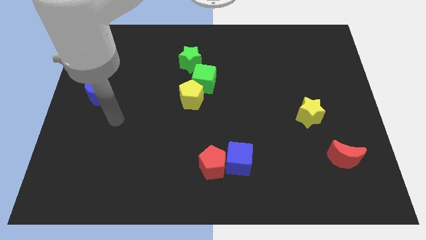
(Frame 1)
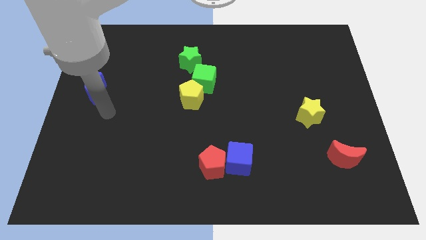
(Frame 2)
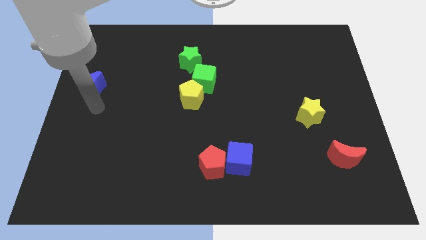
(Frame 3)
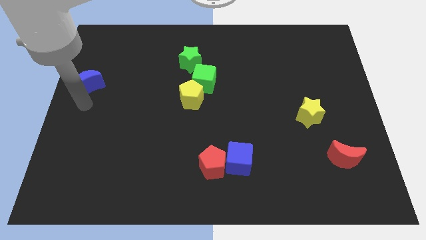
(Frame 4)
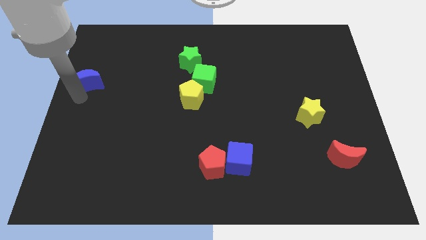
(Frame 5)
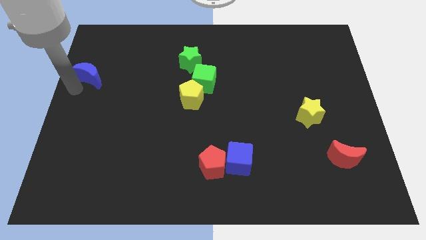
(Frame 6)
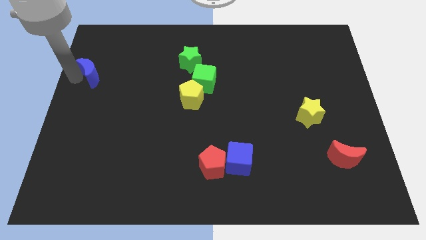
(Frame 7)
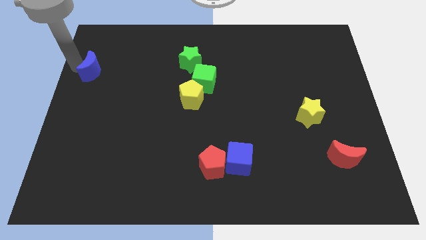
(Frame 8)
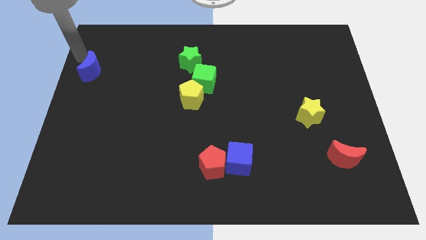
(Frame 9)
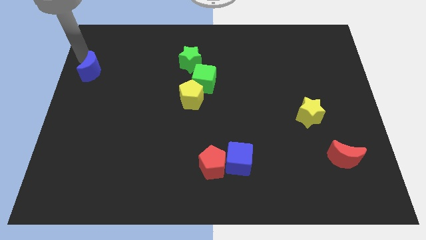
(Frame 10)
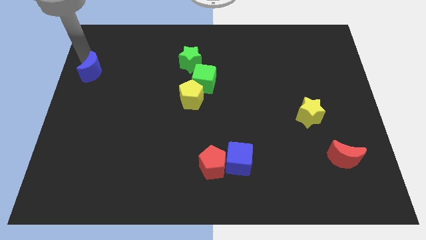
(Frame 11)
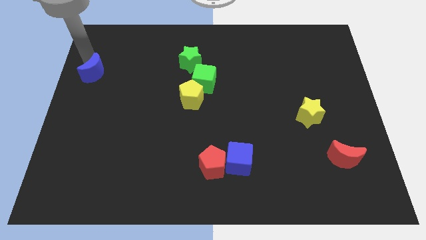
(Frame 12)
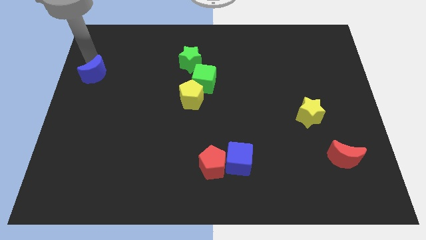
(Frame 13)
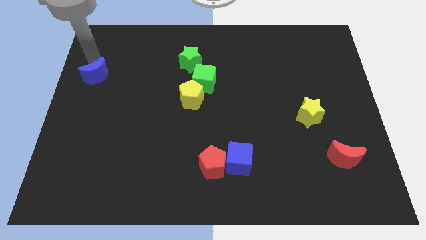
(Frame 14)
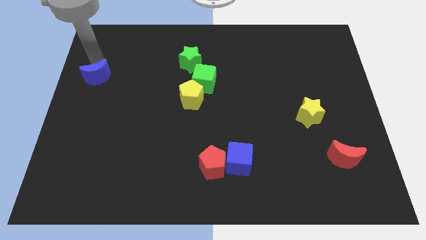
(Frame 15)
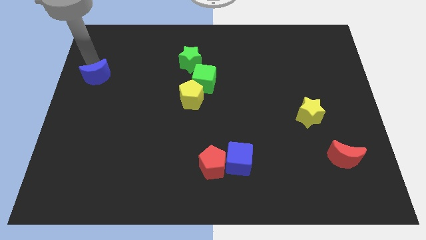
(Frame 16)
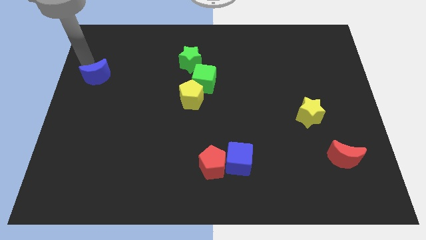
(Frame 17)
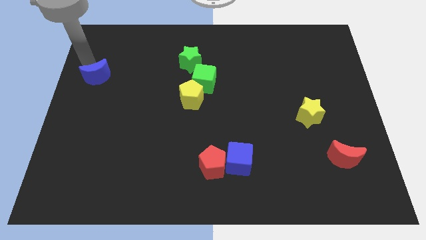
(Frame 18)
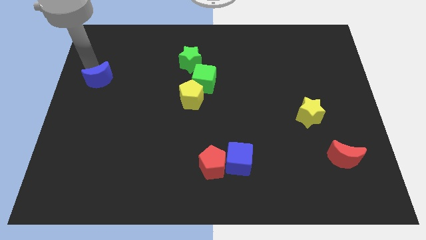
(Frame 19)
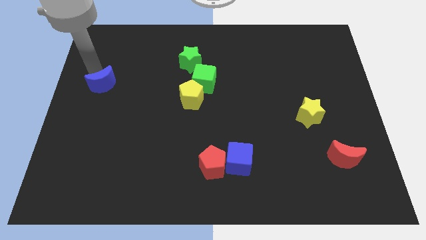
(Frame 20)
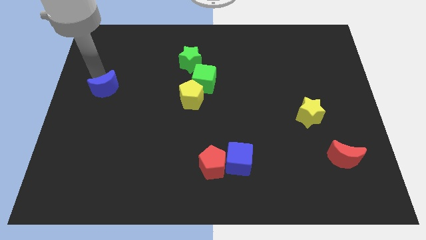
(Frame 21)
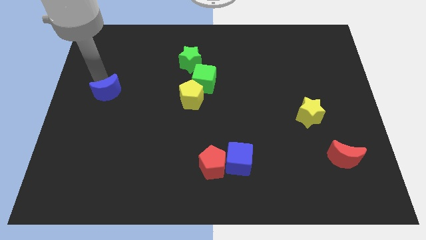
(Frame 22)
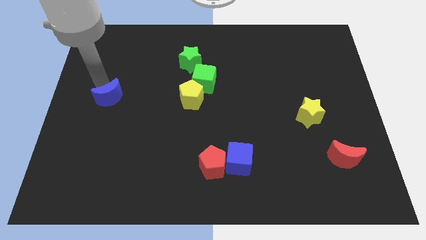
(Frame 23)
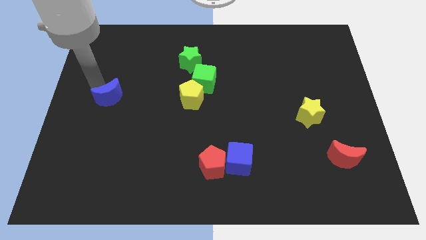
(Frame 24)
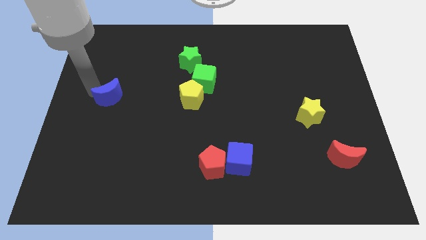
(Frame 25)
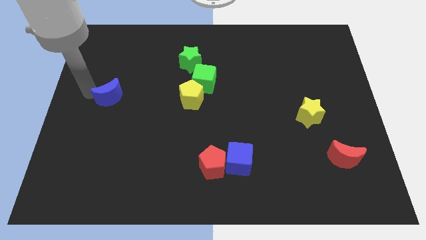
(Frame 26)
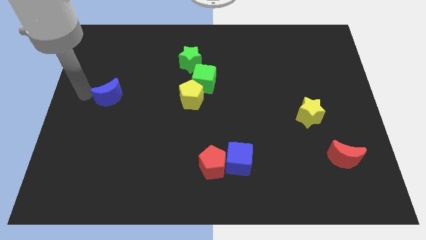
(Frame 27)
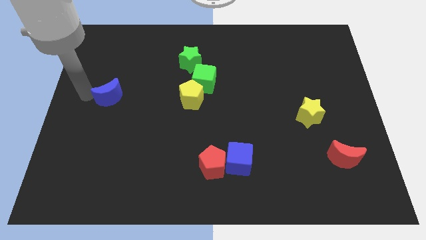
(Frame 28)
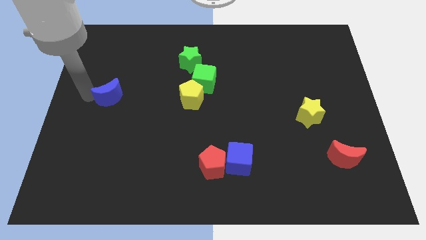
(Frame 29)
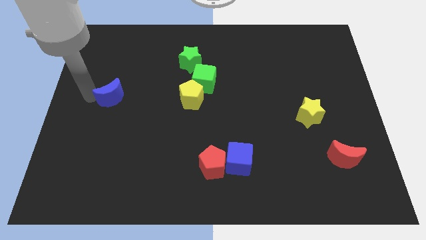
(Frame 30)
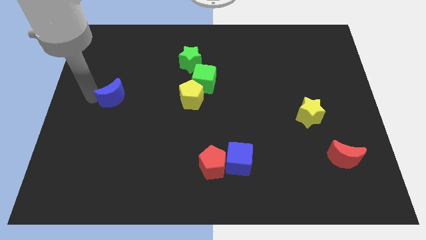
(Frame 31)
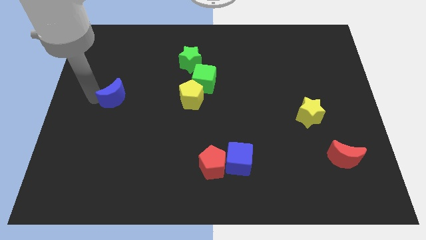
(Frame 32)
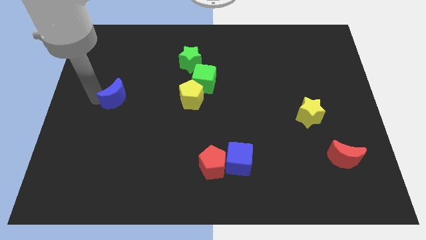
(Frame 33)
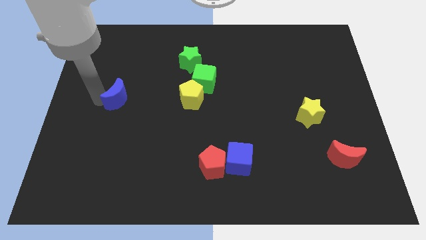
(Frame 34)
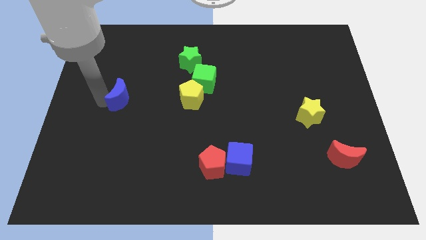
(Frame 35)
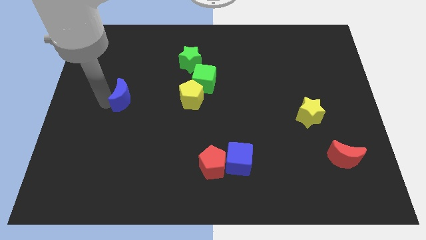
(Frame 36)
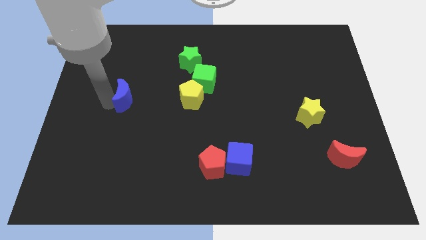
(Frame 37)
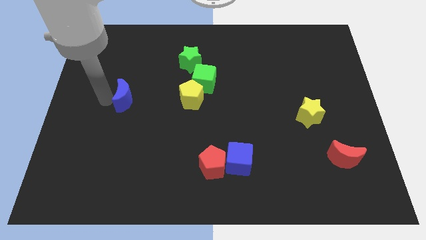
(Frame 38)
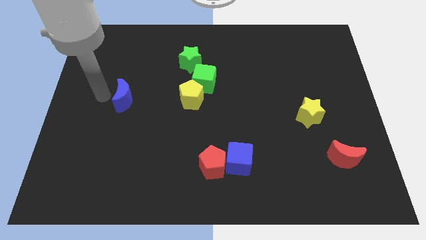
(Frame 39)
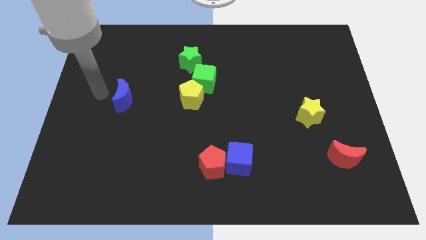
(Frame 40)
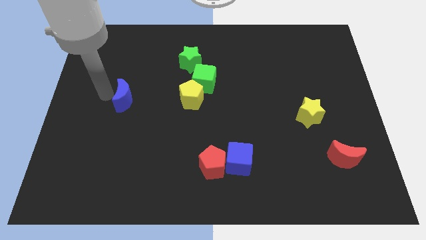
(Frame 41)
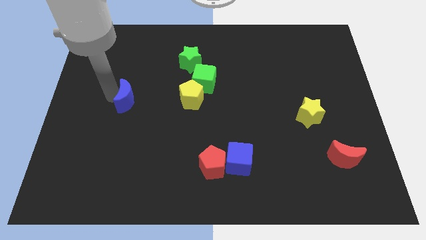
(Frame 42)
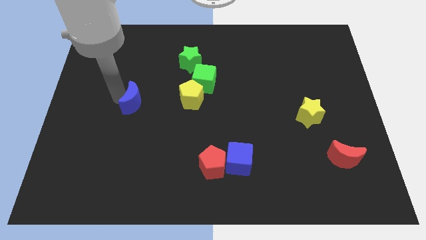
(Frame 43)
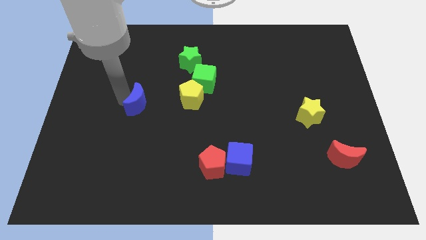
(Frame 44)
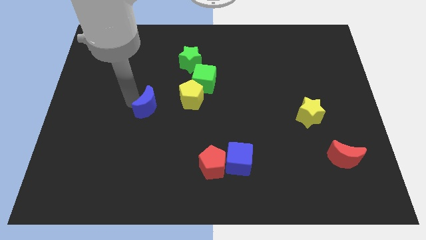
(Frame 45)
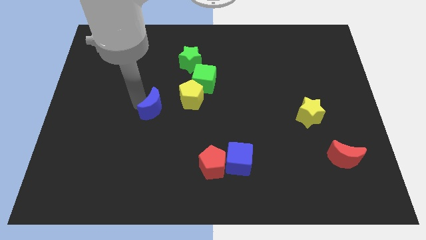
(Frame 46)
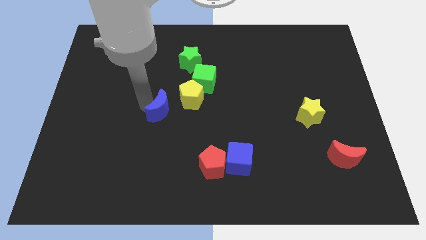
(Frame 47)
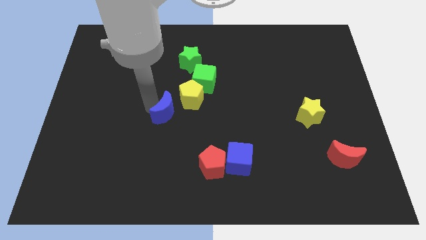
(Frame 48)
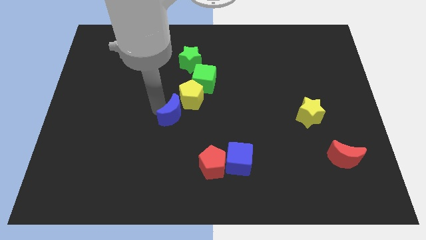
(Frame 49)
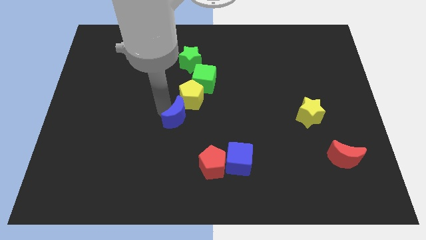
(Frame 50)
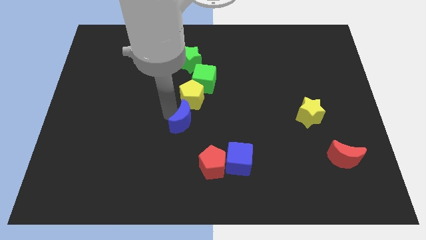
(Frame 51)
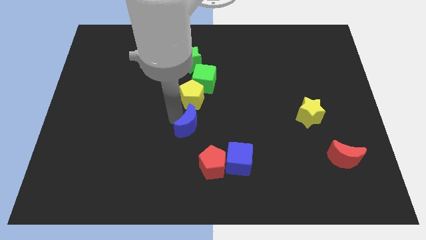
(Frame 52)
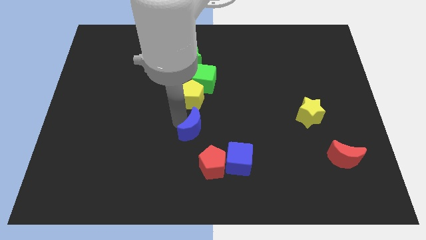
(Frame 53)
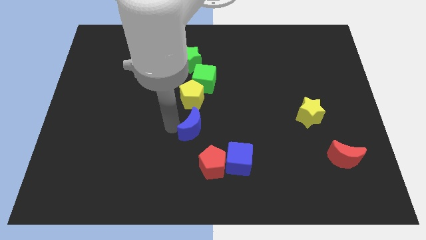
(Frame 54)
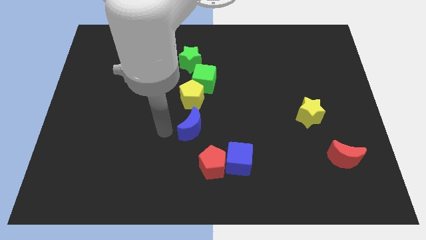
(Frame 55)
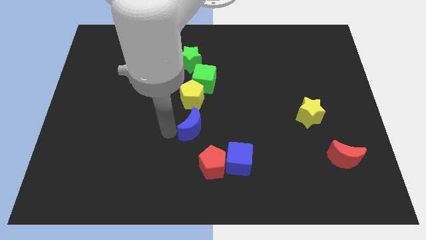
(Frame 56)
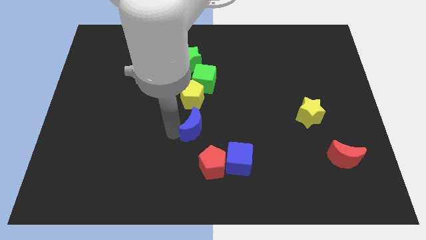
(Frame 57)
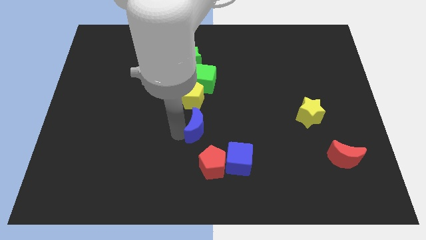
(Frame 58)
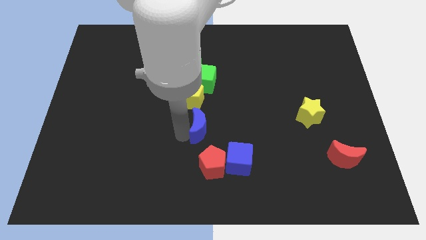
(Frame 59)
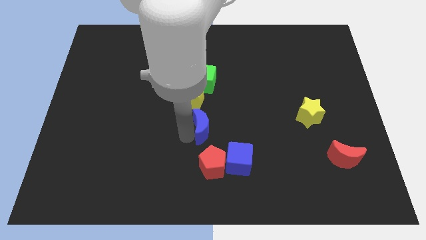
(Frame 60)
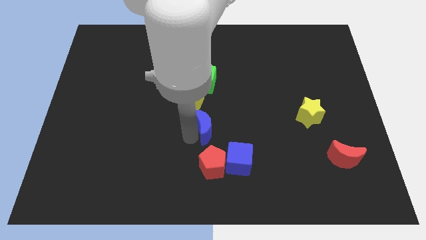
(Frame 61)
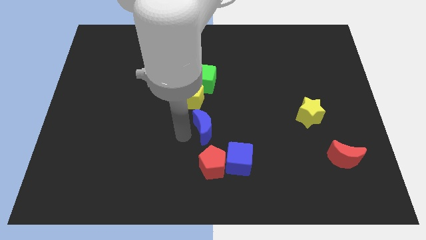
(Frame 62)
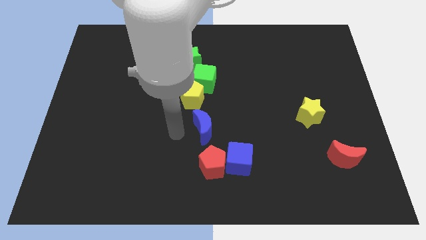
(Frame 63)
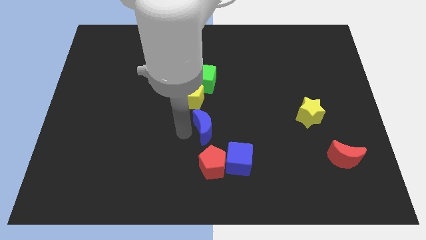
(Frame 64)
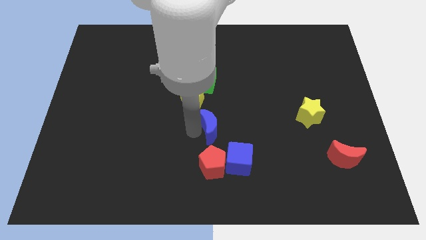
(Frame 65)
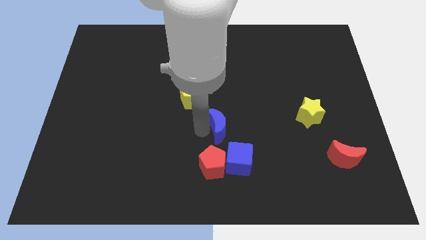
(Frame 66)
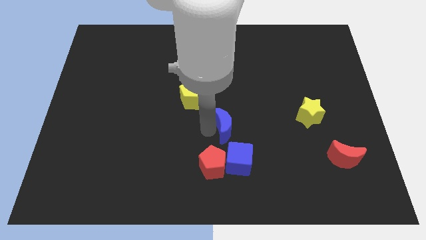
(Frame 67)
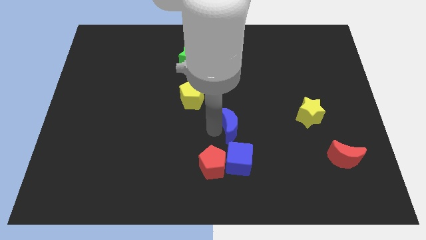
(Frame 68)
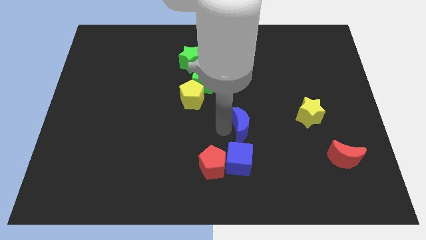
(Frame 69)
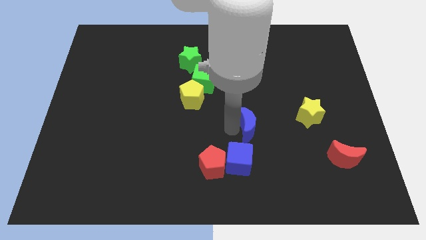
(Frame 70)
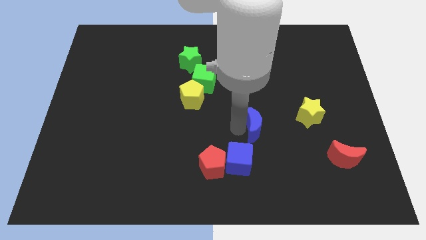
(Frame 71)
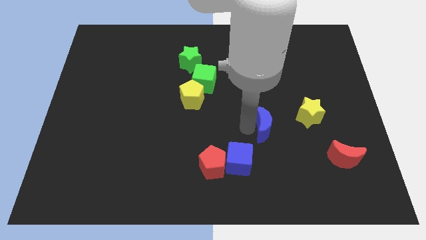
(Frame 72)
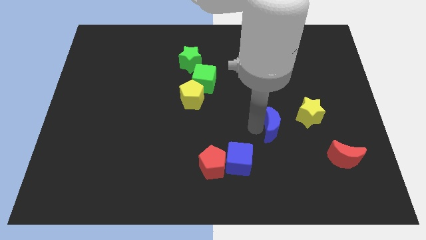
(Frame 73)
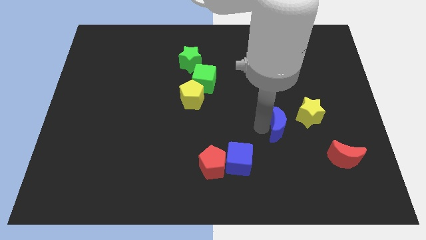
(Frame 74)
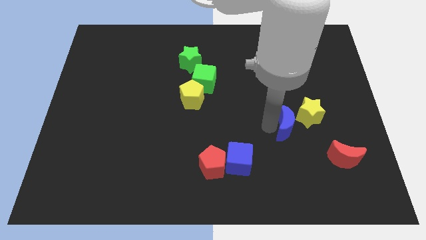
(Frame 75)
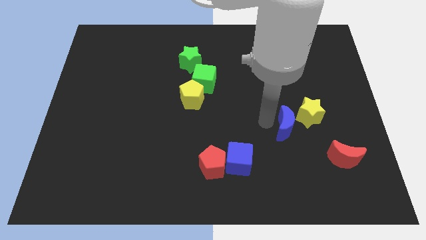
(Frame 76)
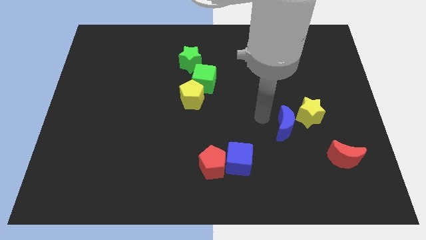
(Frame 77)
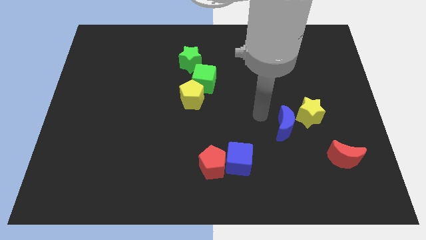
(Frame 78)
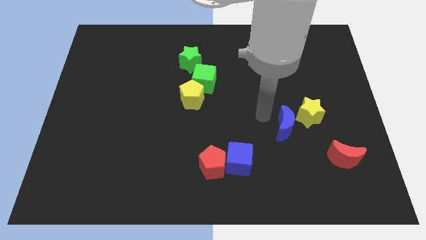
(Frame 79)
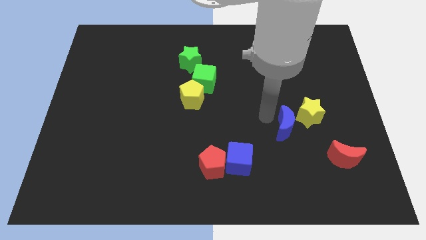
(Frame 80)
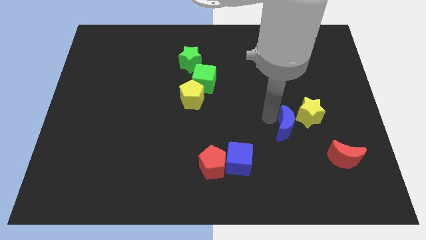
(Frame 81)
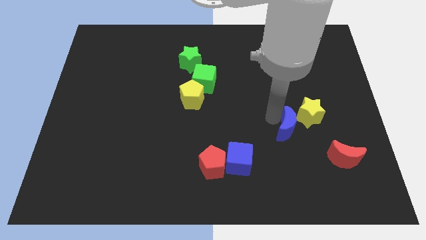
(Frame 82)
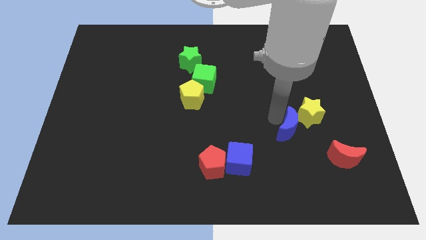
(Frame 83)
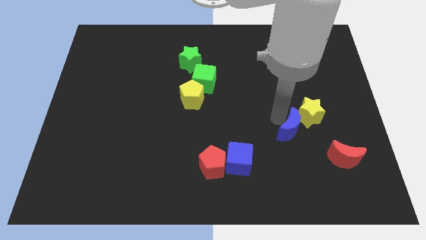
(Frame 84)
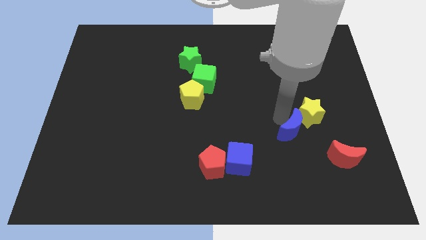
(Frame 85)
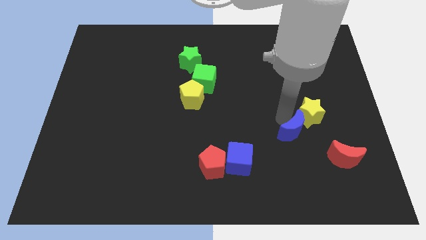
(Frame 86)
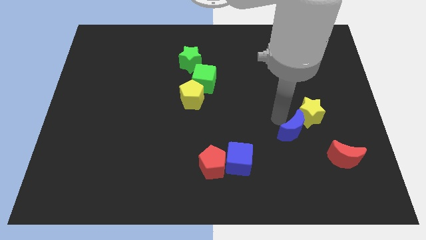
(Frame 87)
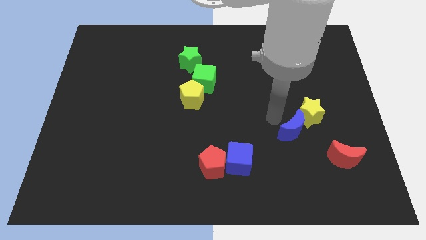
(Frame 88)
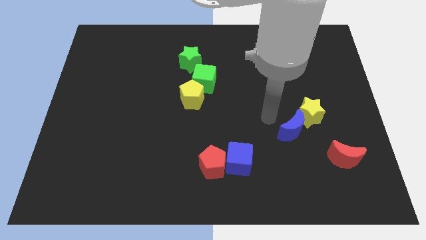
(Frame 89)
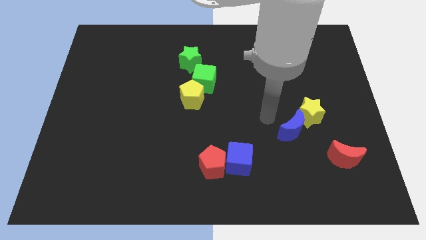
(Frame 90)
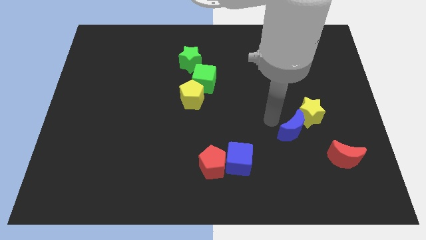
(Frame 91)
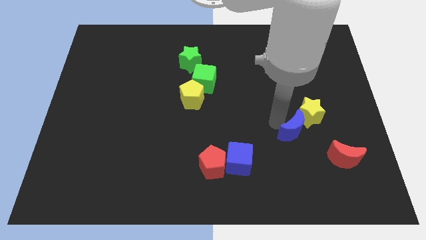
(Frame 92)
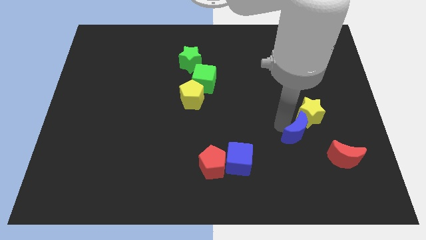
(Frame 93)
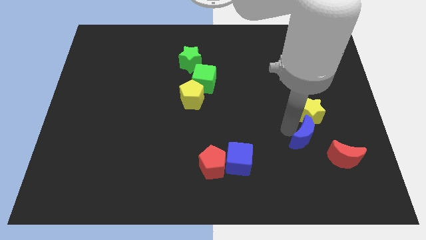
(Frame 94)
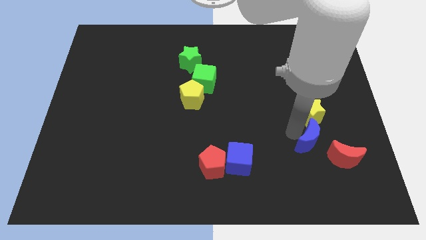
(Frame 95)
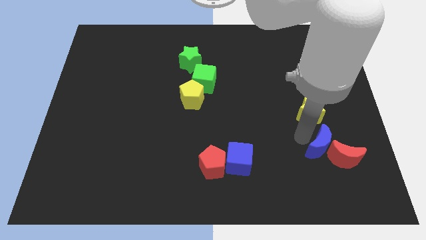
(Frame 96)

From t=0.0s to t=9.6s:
push the blue moon next to the red moon
